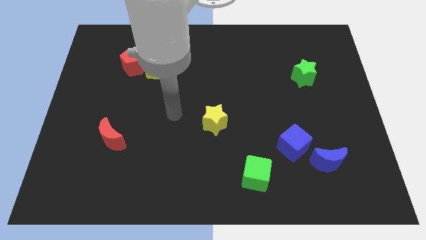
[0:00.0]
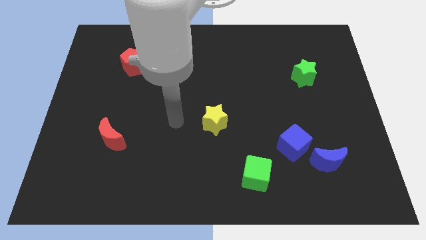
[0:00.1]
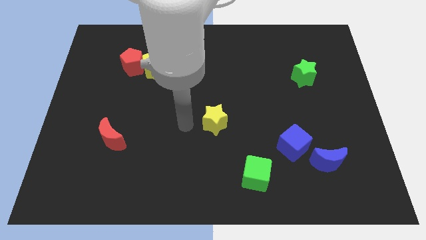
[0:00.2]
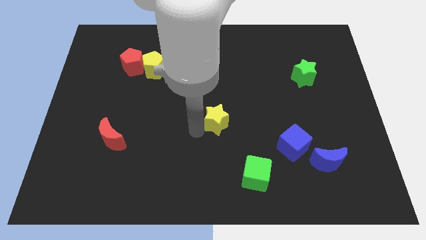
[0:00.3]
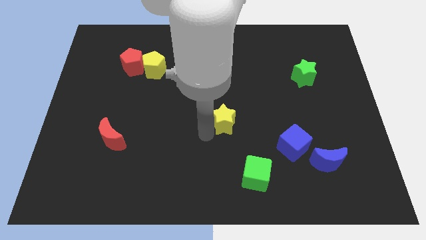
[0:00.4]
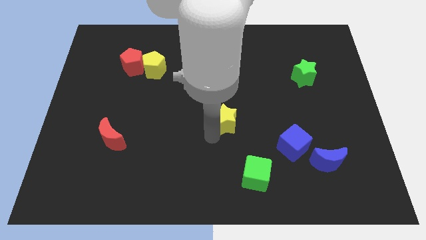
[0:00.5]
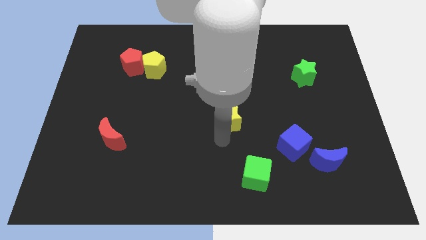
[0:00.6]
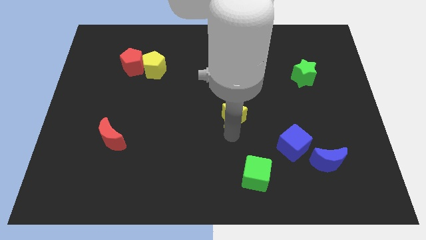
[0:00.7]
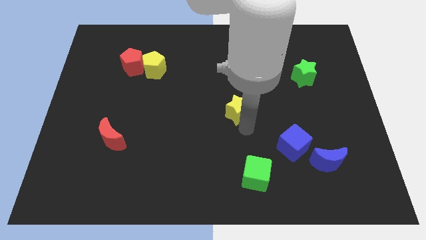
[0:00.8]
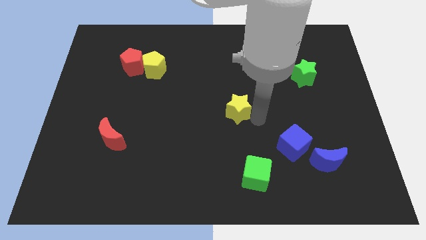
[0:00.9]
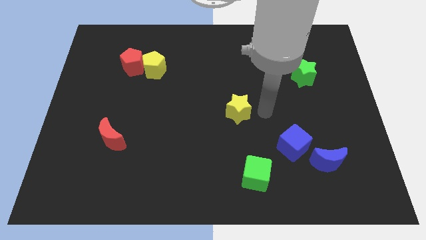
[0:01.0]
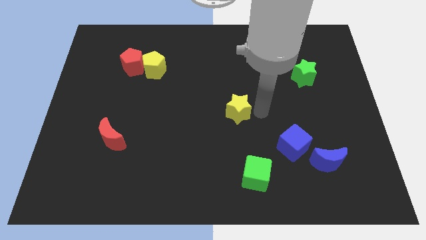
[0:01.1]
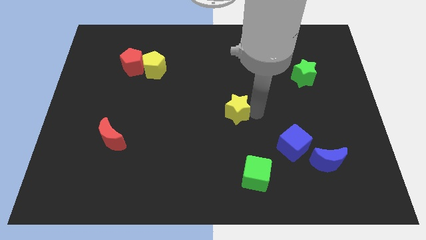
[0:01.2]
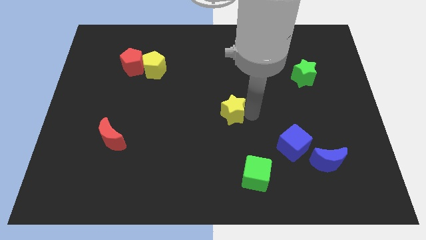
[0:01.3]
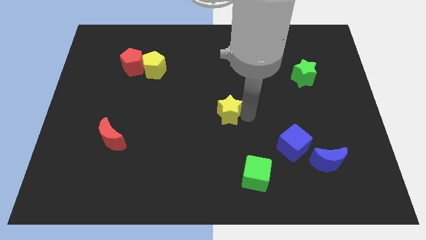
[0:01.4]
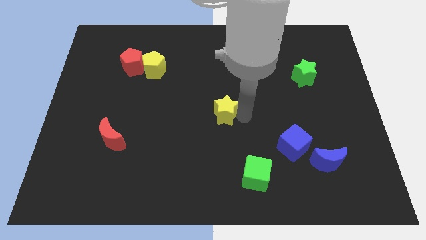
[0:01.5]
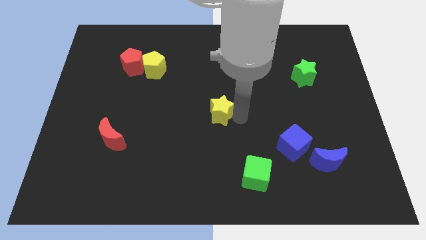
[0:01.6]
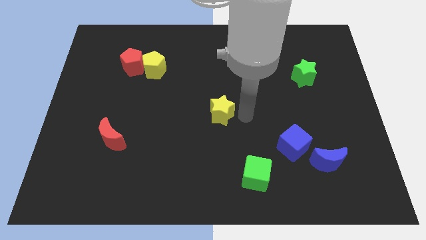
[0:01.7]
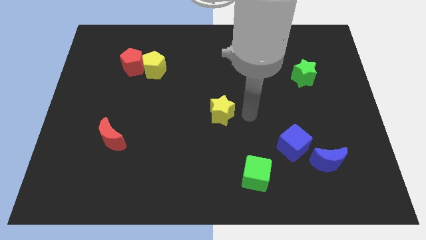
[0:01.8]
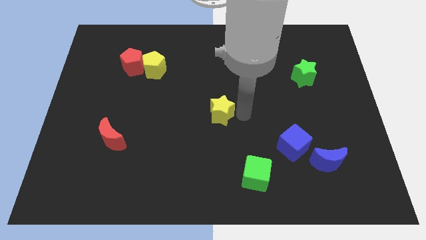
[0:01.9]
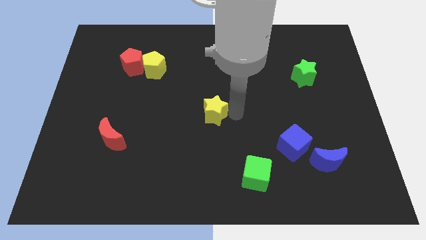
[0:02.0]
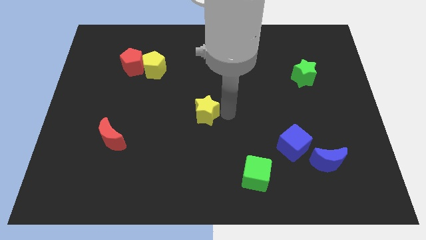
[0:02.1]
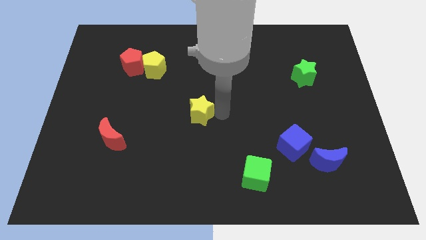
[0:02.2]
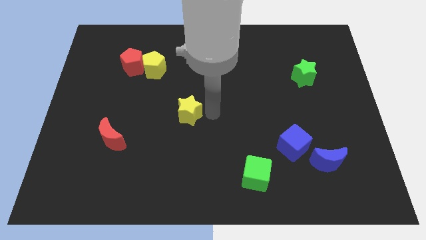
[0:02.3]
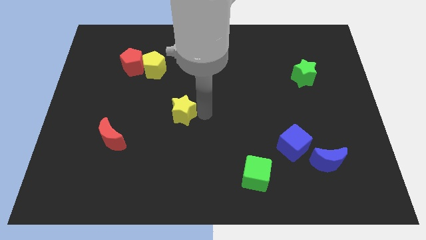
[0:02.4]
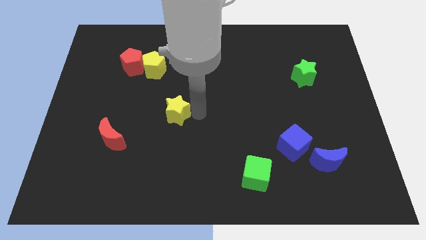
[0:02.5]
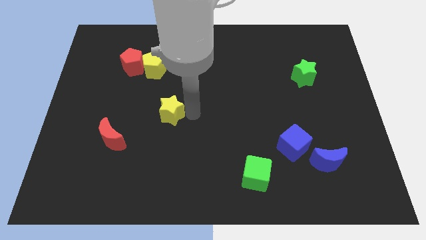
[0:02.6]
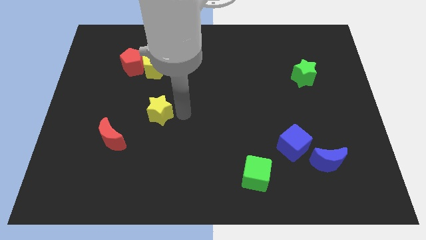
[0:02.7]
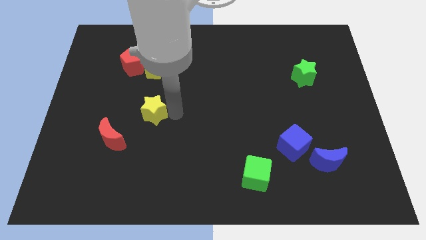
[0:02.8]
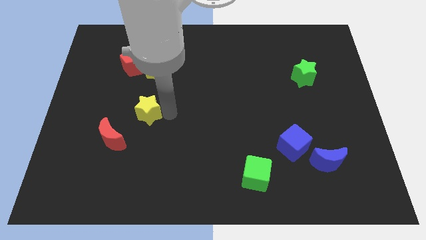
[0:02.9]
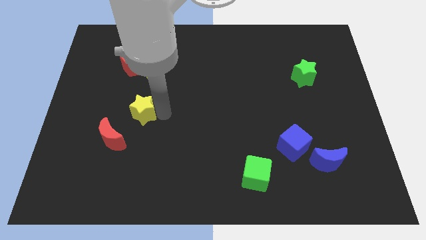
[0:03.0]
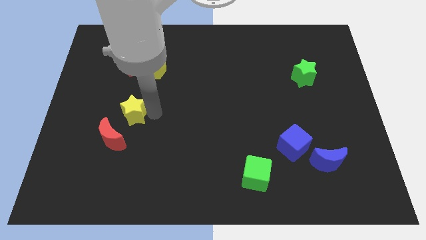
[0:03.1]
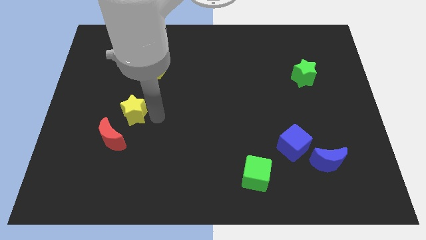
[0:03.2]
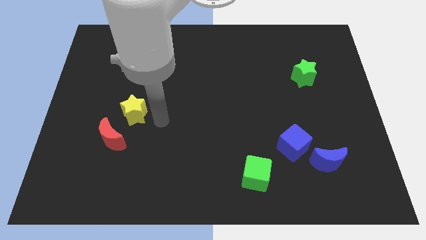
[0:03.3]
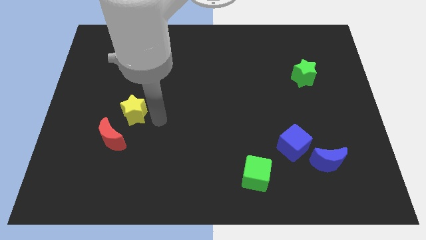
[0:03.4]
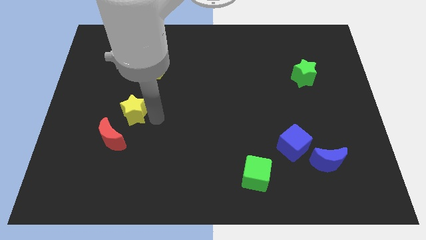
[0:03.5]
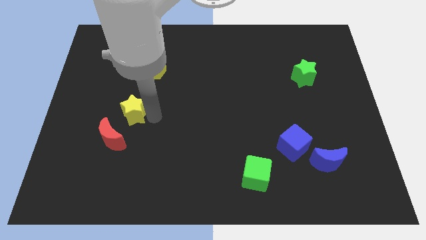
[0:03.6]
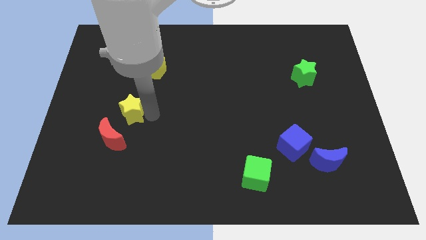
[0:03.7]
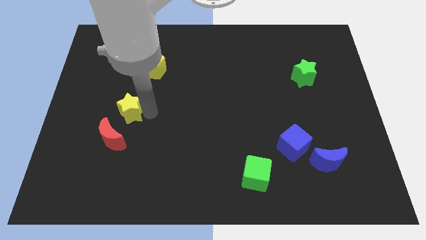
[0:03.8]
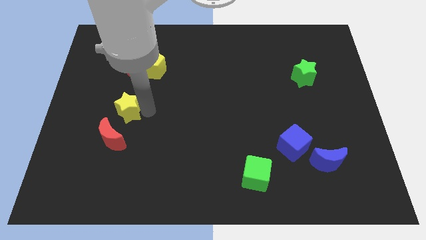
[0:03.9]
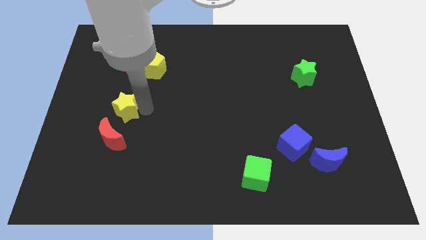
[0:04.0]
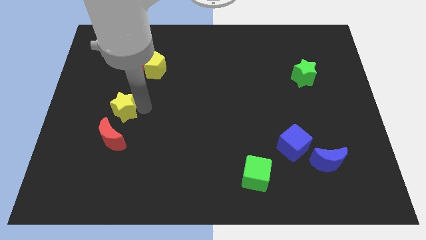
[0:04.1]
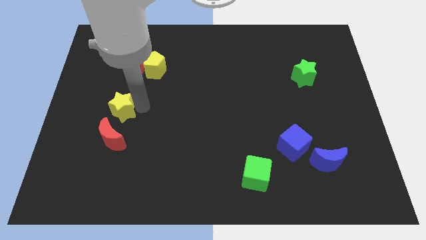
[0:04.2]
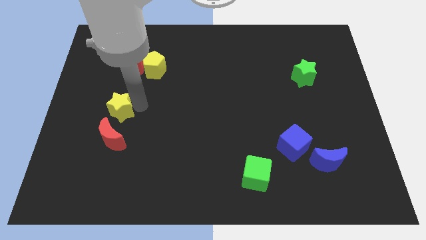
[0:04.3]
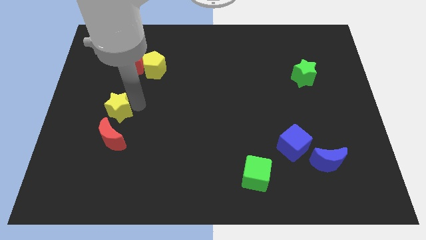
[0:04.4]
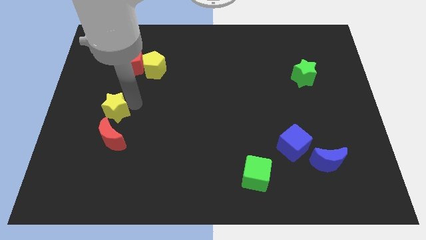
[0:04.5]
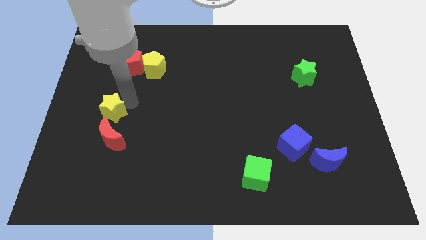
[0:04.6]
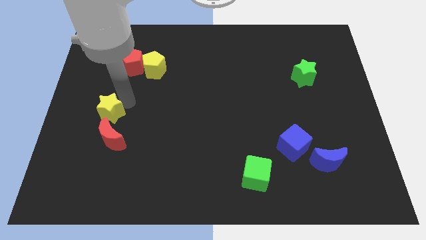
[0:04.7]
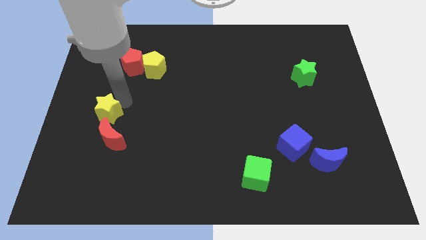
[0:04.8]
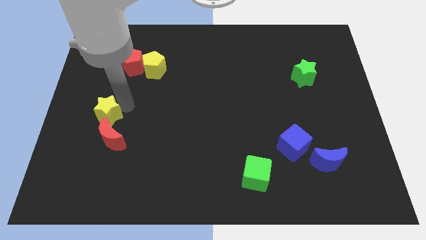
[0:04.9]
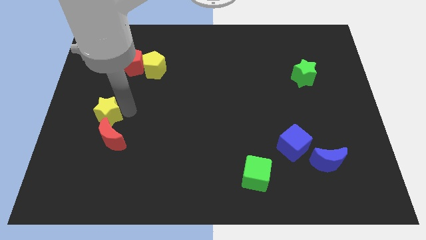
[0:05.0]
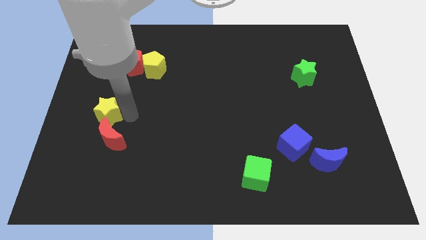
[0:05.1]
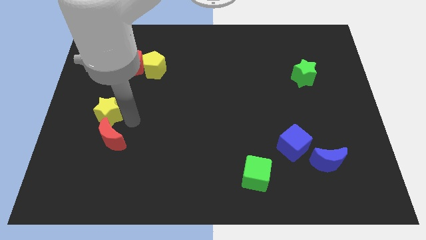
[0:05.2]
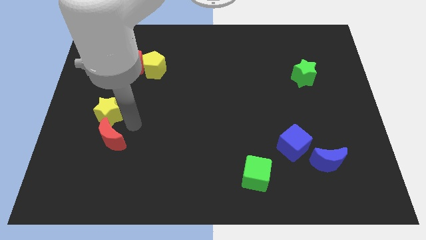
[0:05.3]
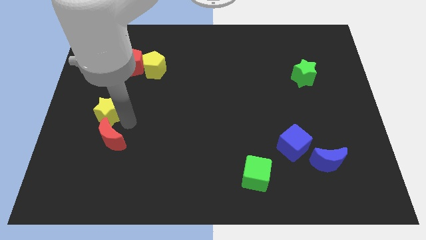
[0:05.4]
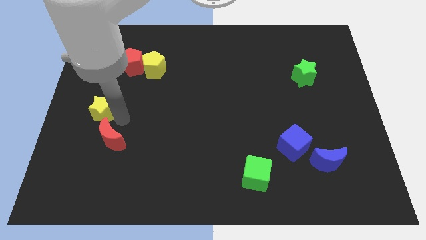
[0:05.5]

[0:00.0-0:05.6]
push the yellow star to the left side

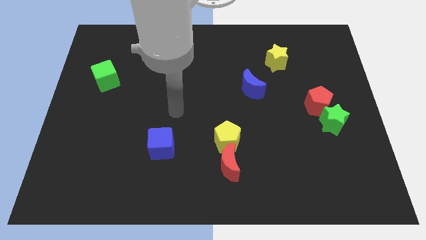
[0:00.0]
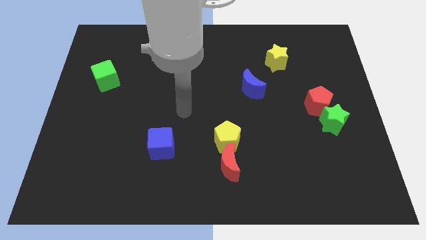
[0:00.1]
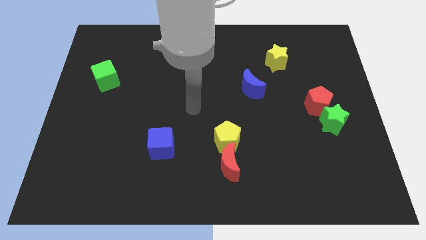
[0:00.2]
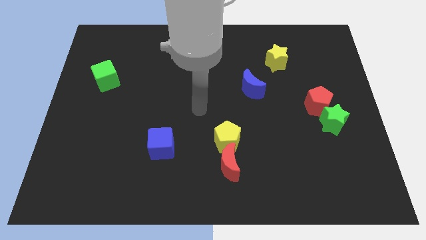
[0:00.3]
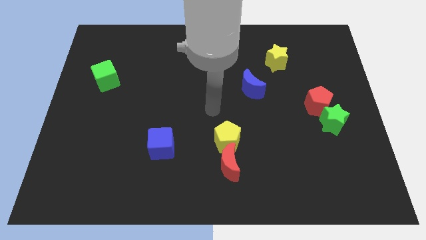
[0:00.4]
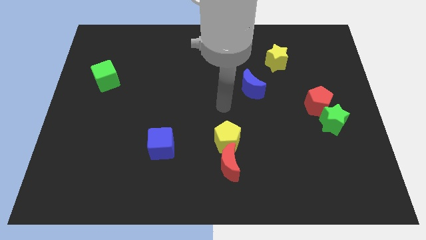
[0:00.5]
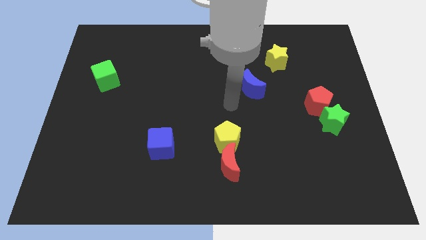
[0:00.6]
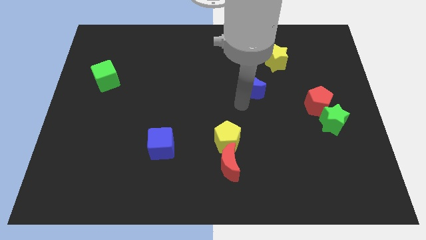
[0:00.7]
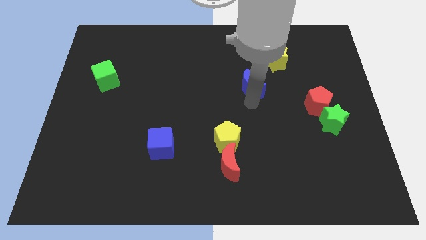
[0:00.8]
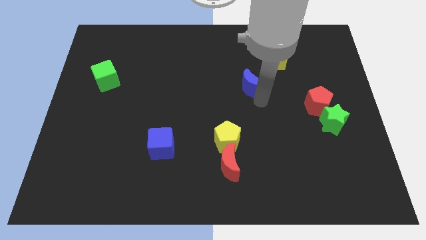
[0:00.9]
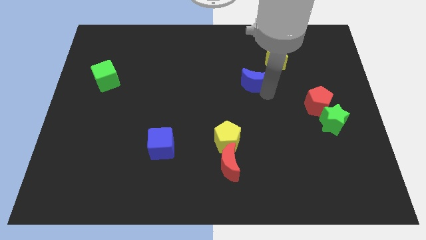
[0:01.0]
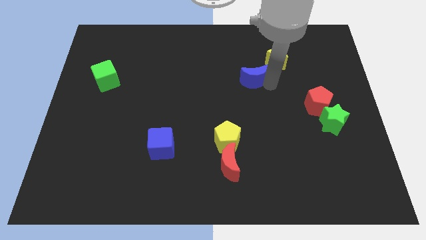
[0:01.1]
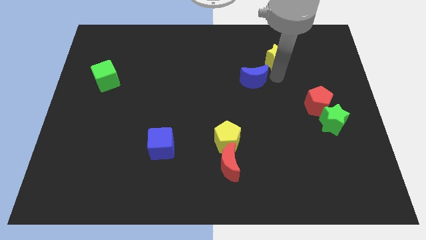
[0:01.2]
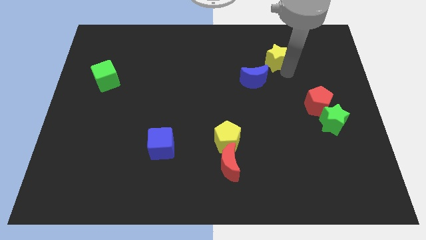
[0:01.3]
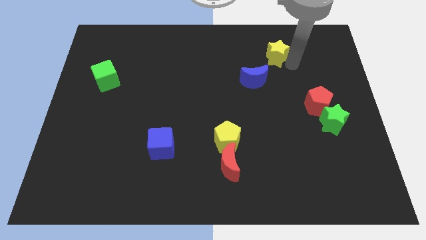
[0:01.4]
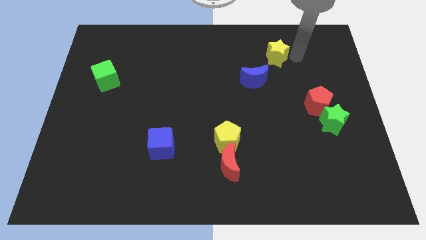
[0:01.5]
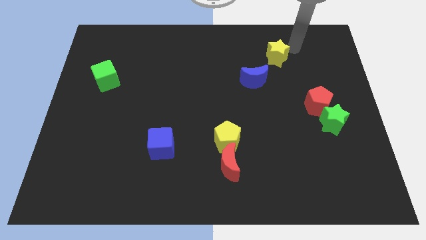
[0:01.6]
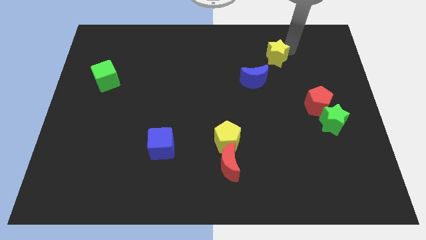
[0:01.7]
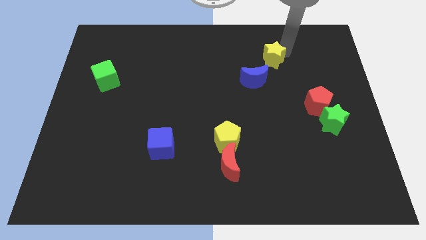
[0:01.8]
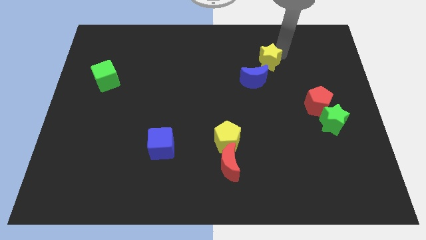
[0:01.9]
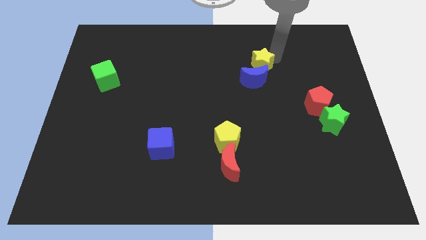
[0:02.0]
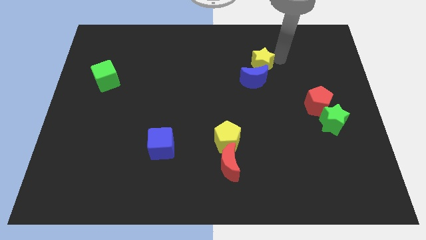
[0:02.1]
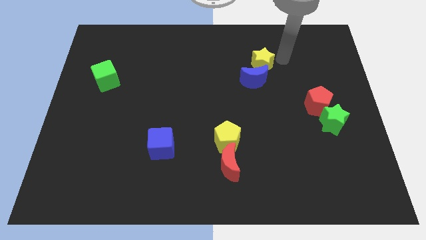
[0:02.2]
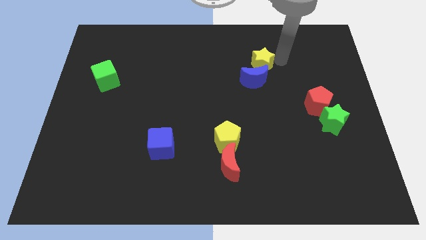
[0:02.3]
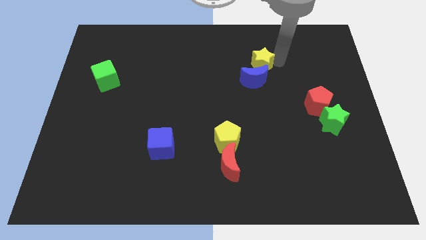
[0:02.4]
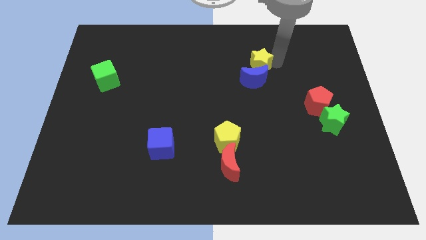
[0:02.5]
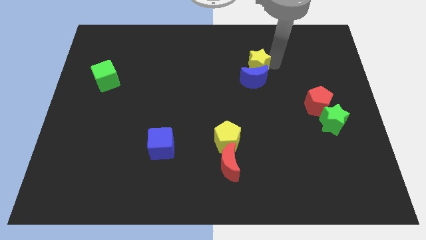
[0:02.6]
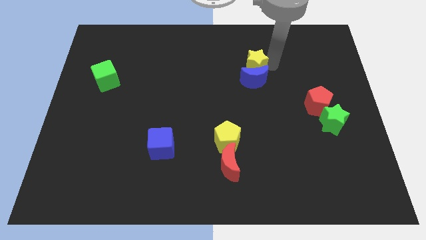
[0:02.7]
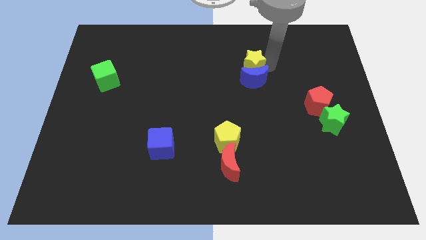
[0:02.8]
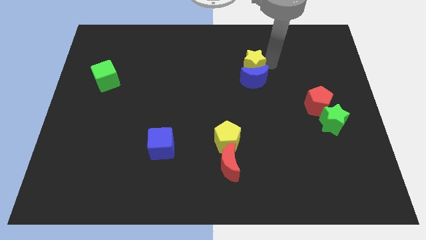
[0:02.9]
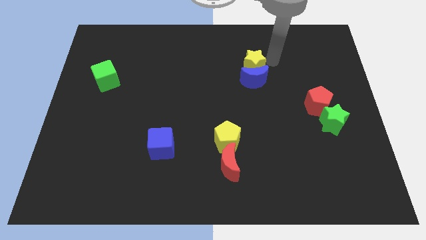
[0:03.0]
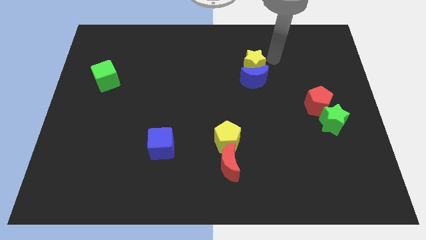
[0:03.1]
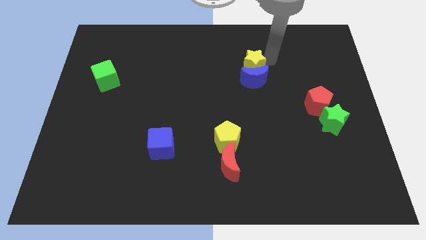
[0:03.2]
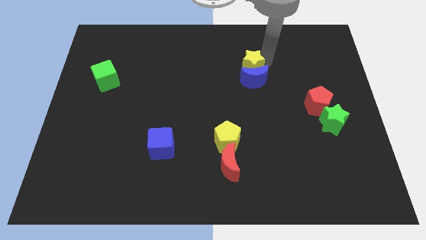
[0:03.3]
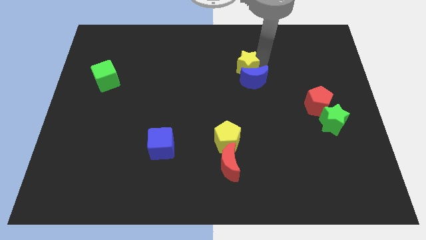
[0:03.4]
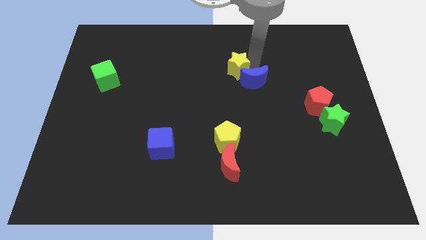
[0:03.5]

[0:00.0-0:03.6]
put the yellow star to the middle
